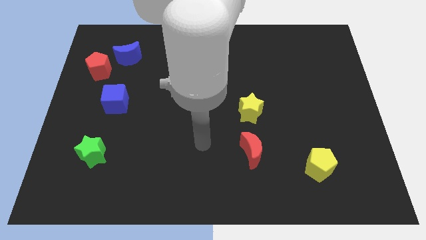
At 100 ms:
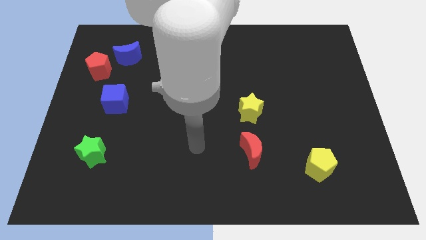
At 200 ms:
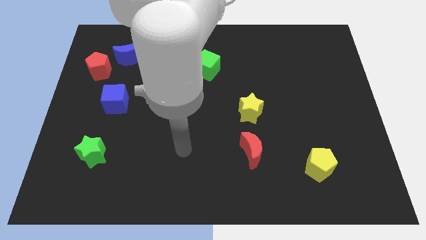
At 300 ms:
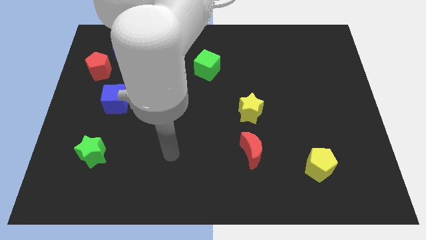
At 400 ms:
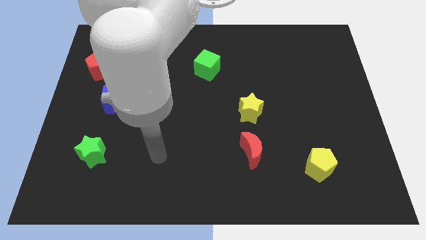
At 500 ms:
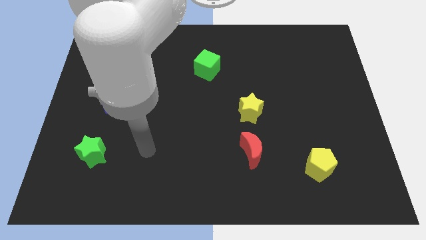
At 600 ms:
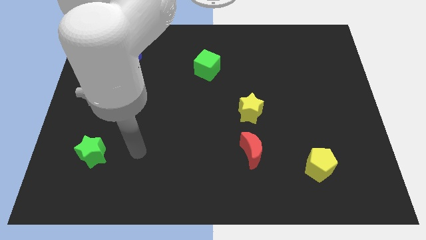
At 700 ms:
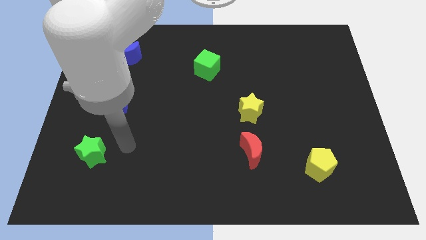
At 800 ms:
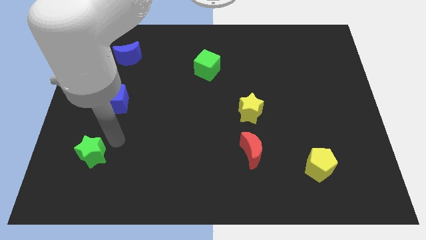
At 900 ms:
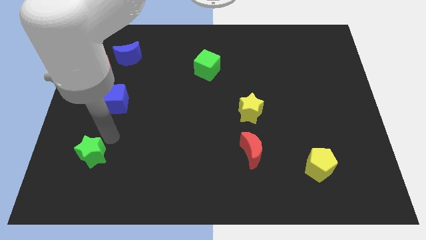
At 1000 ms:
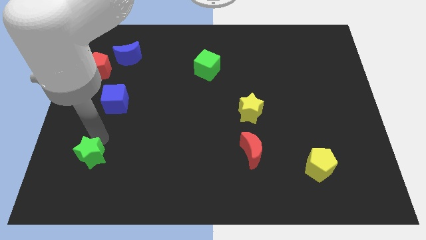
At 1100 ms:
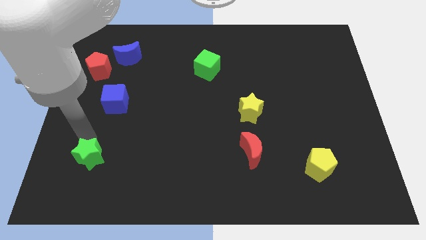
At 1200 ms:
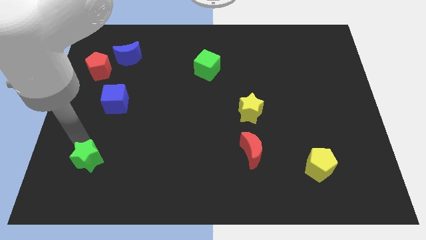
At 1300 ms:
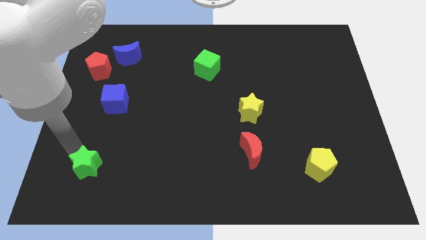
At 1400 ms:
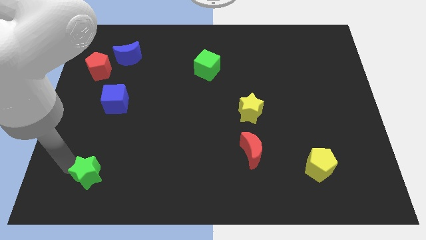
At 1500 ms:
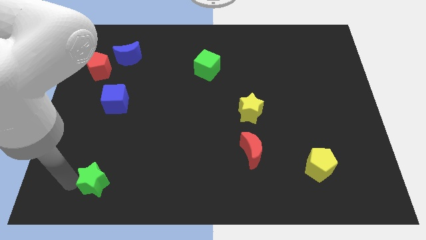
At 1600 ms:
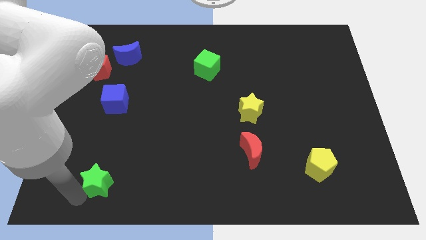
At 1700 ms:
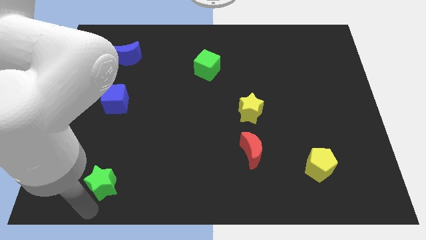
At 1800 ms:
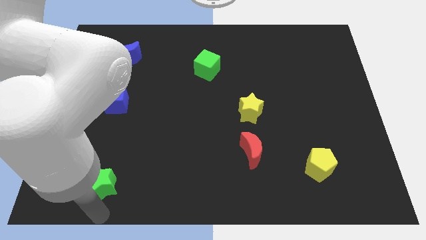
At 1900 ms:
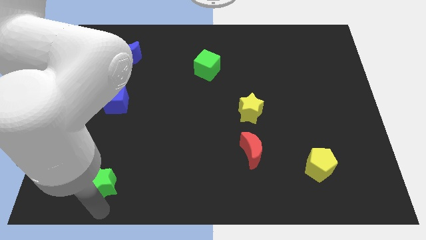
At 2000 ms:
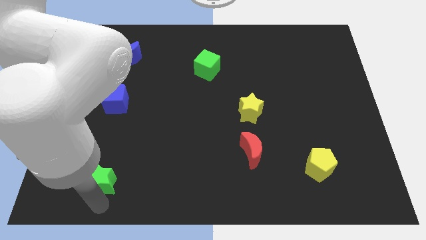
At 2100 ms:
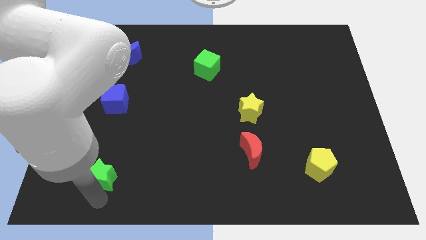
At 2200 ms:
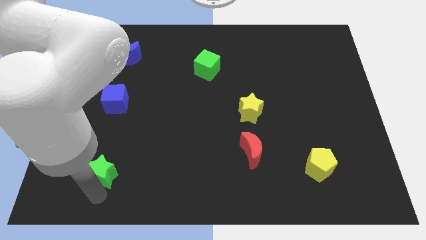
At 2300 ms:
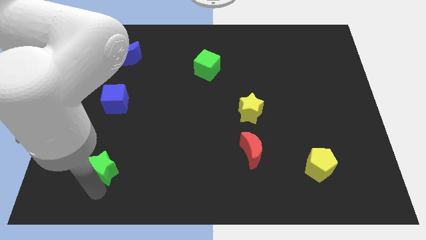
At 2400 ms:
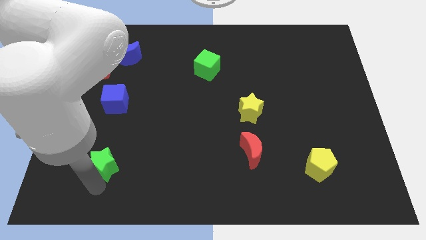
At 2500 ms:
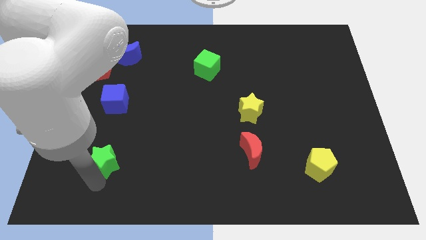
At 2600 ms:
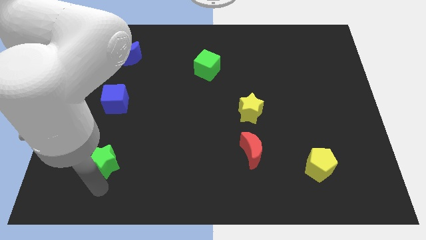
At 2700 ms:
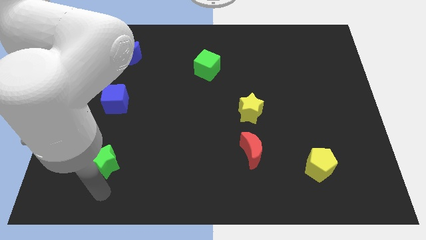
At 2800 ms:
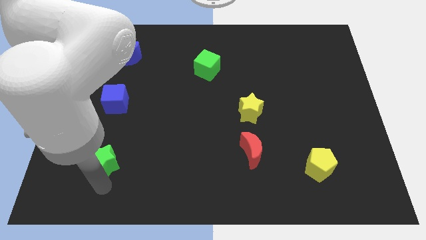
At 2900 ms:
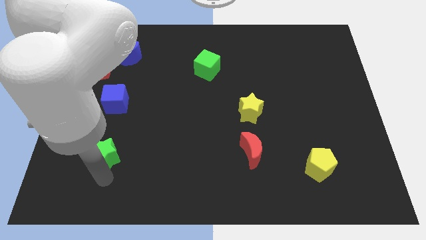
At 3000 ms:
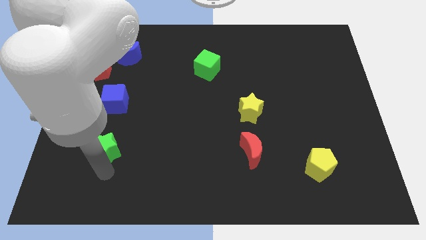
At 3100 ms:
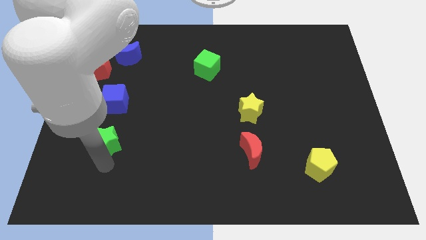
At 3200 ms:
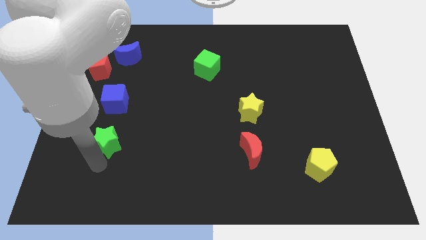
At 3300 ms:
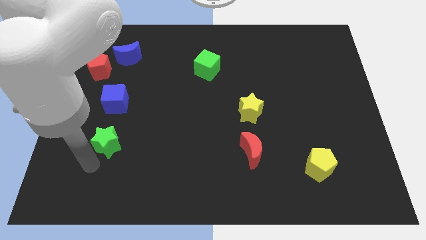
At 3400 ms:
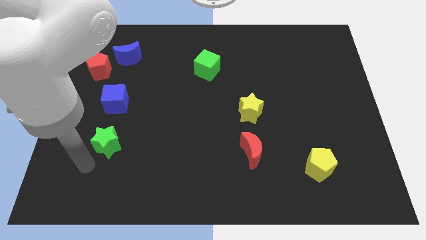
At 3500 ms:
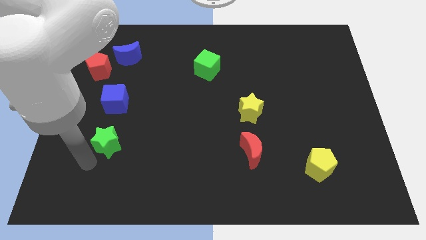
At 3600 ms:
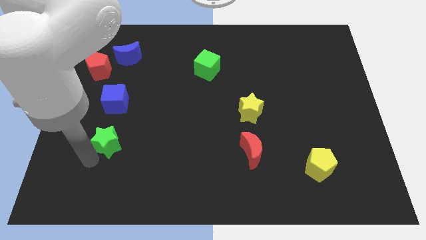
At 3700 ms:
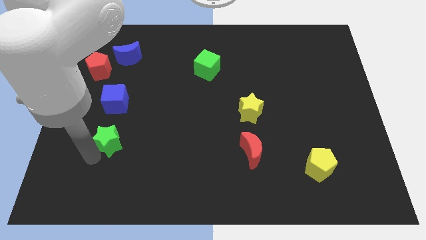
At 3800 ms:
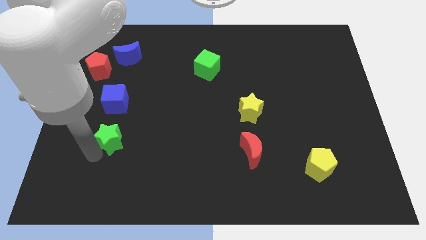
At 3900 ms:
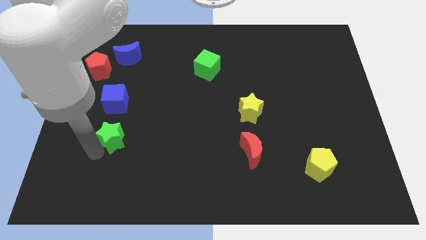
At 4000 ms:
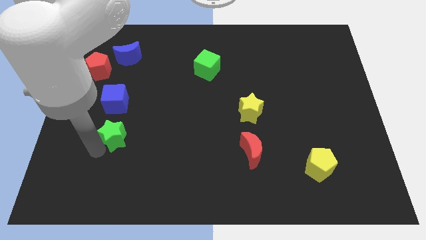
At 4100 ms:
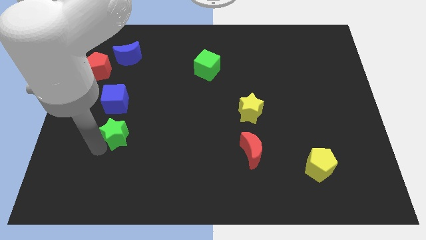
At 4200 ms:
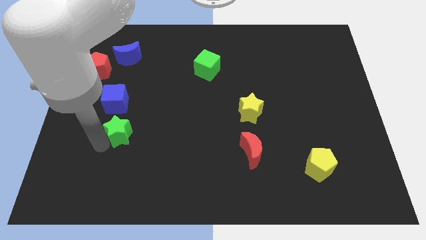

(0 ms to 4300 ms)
slide the green star slightly diagonally upwards and right

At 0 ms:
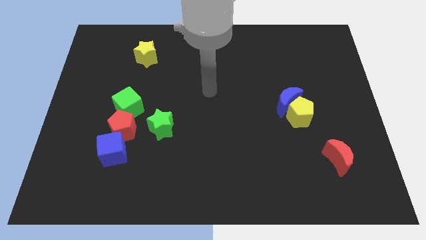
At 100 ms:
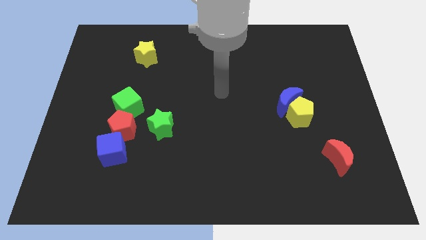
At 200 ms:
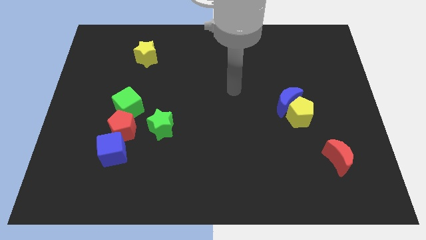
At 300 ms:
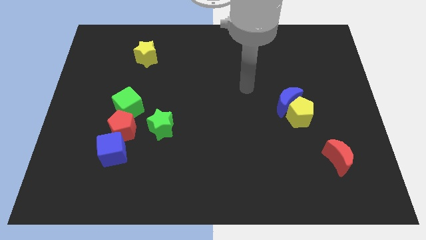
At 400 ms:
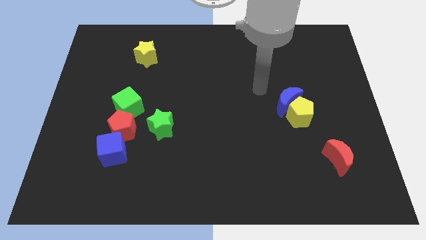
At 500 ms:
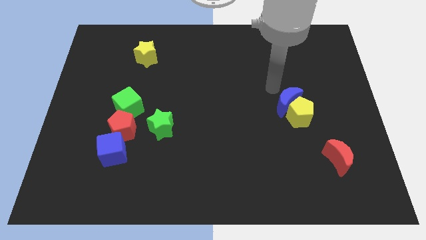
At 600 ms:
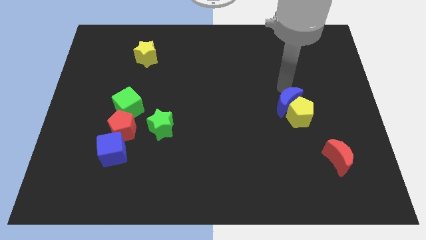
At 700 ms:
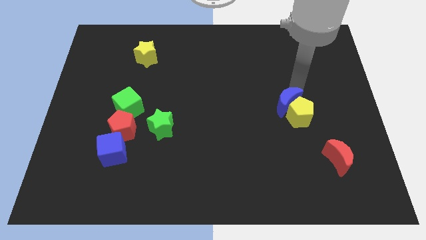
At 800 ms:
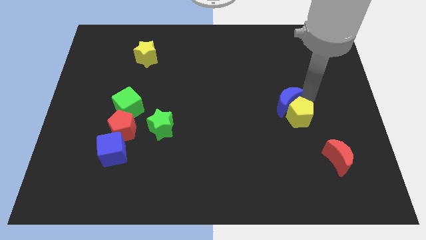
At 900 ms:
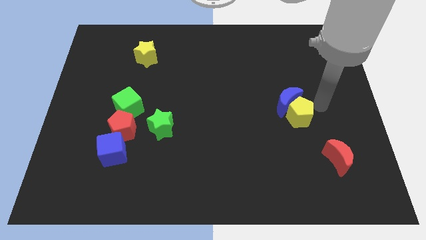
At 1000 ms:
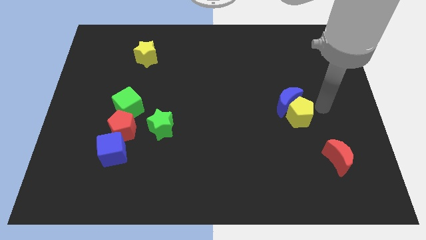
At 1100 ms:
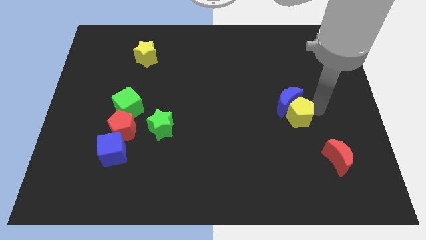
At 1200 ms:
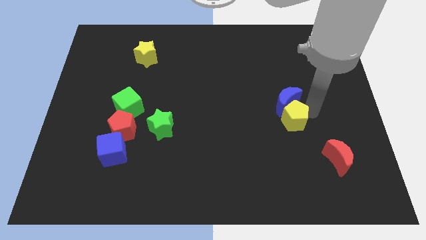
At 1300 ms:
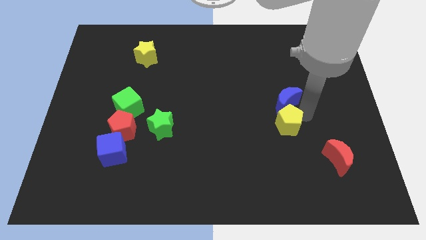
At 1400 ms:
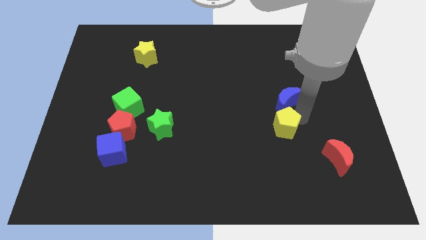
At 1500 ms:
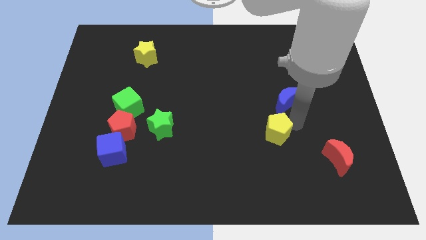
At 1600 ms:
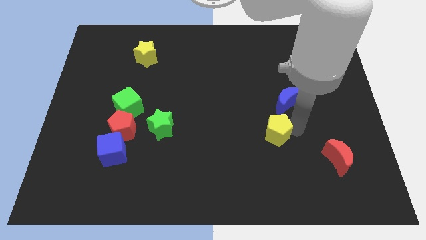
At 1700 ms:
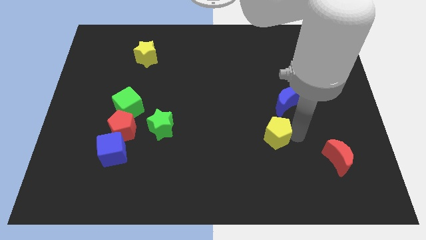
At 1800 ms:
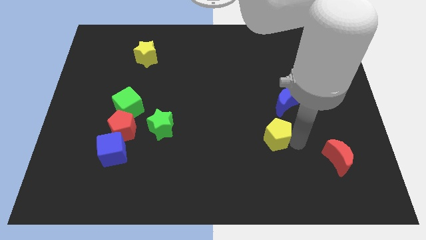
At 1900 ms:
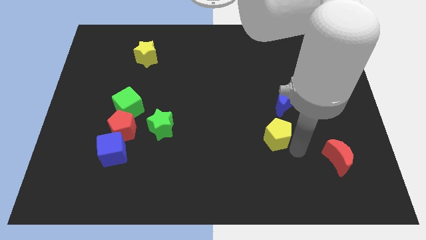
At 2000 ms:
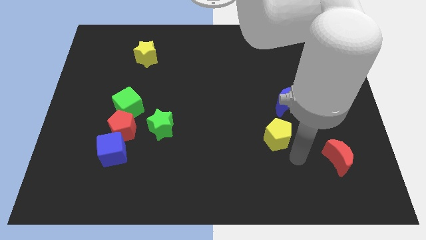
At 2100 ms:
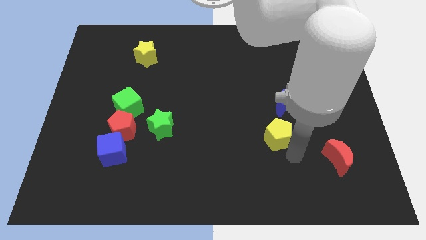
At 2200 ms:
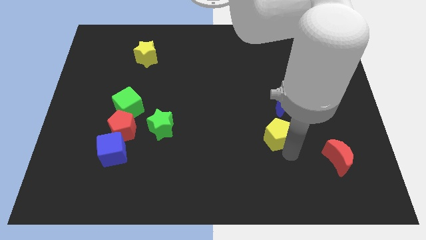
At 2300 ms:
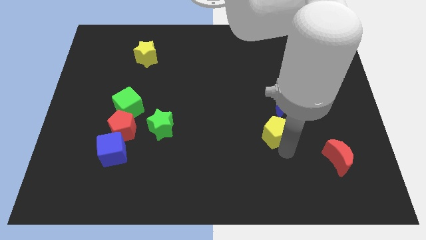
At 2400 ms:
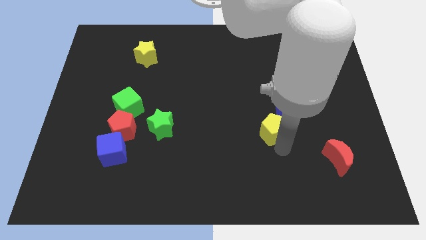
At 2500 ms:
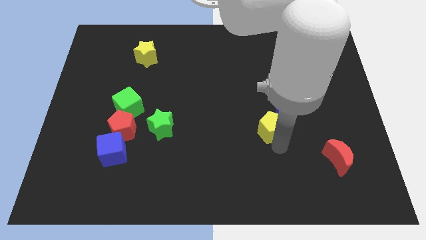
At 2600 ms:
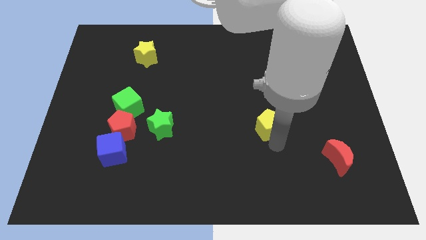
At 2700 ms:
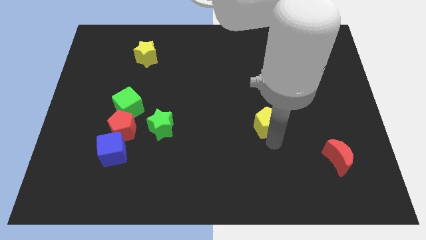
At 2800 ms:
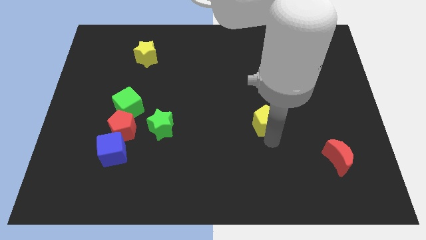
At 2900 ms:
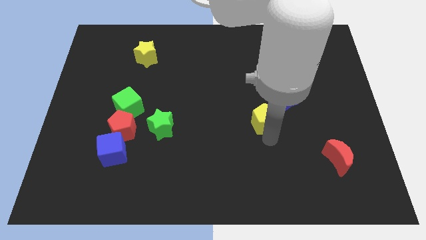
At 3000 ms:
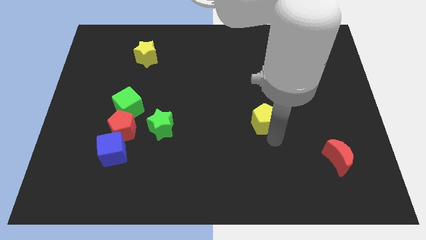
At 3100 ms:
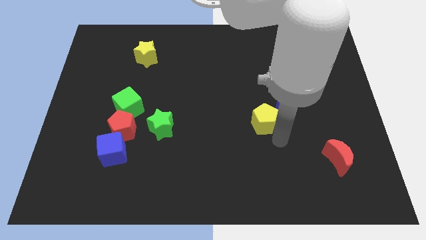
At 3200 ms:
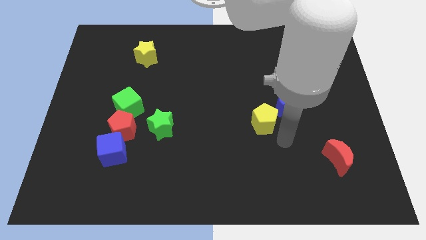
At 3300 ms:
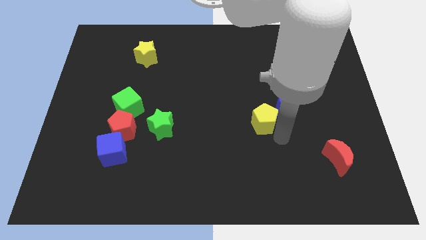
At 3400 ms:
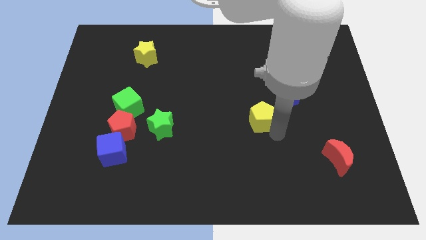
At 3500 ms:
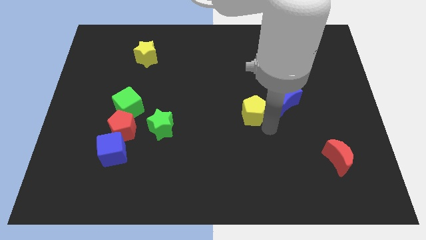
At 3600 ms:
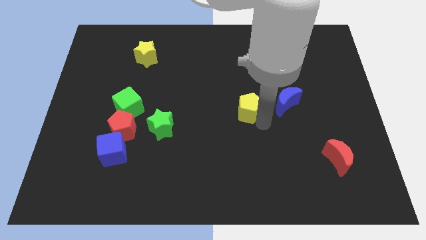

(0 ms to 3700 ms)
push the yellow pentagon slightly up and to the left diagonally

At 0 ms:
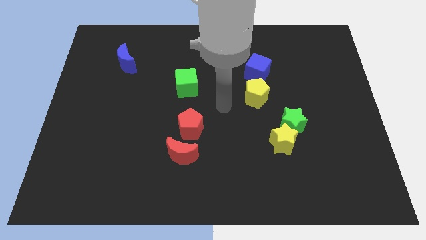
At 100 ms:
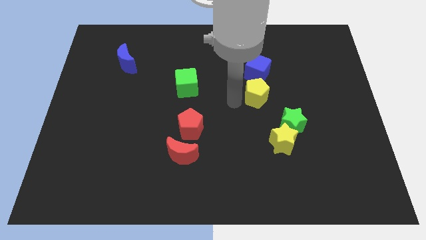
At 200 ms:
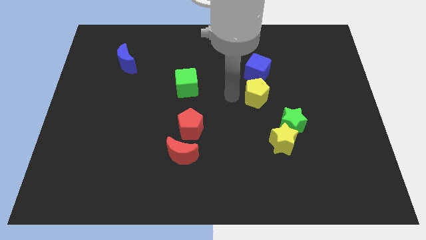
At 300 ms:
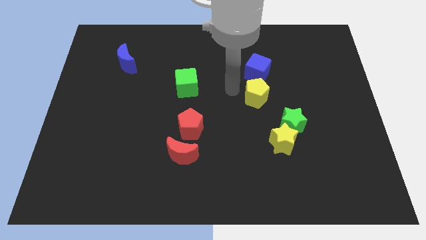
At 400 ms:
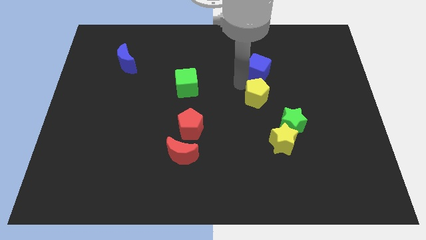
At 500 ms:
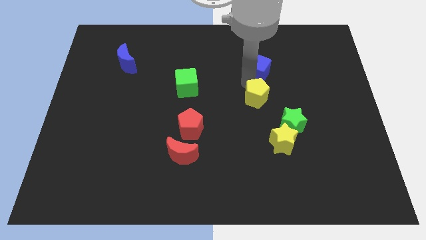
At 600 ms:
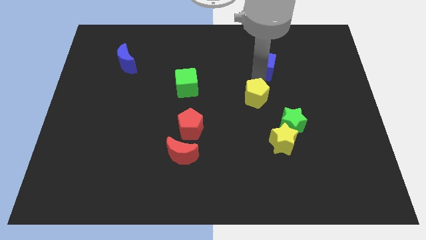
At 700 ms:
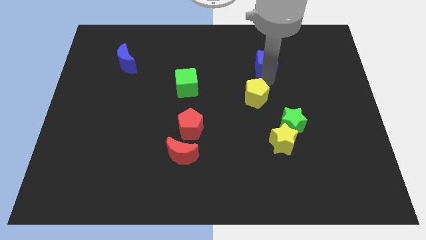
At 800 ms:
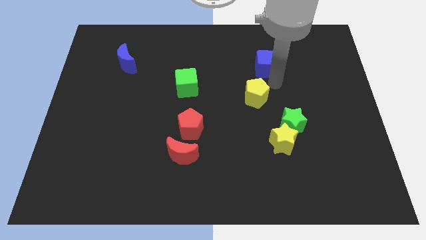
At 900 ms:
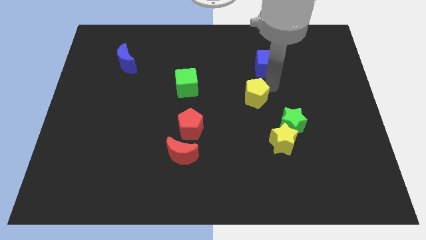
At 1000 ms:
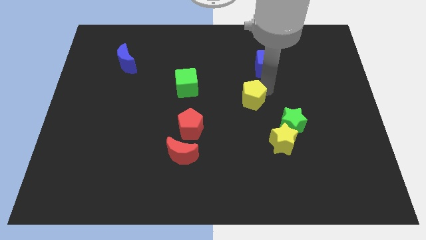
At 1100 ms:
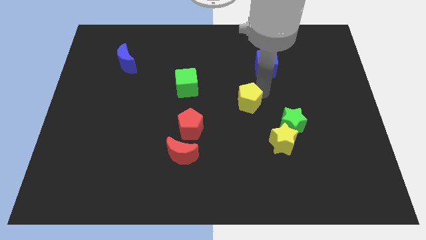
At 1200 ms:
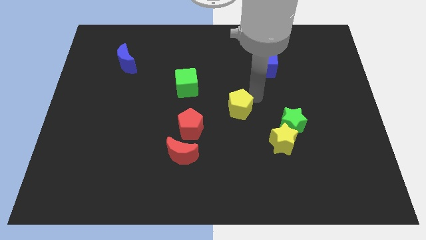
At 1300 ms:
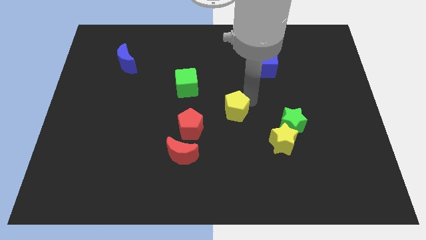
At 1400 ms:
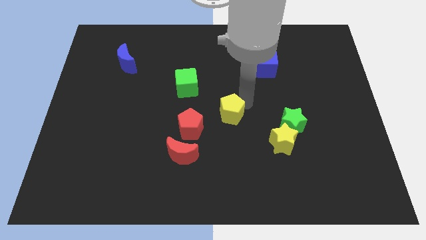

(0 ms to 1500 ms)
push the yellow pentagon down and then left a bit
